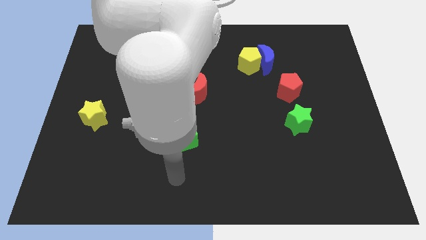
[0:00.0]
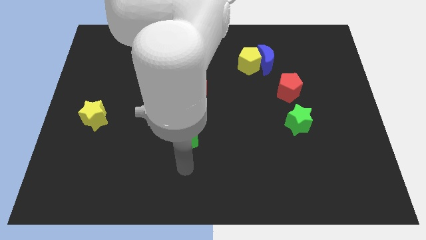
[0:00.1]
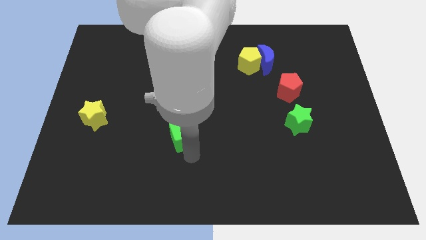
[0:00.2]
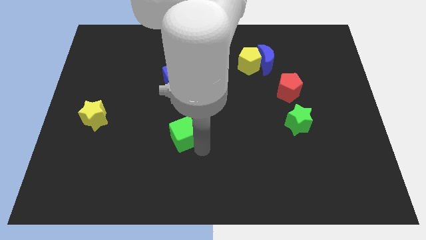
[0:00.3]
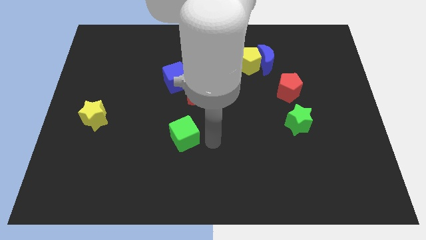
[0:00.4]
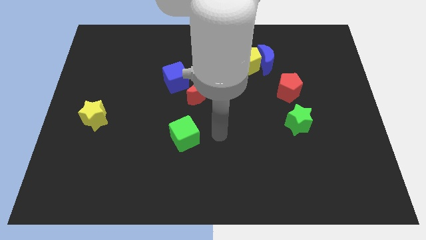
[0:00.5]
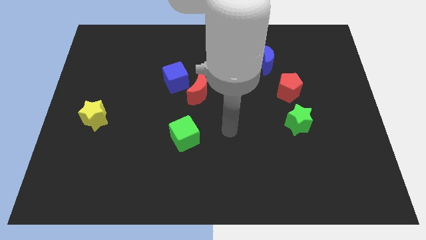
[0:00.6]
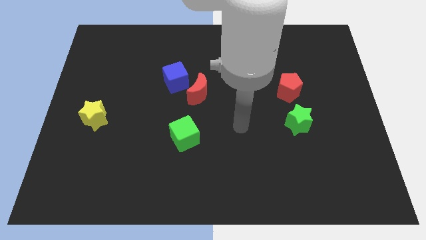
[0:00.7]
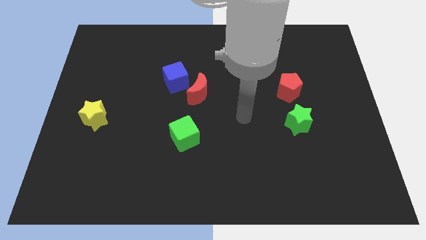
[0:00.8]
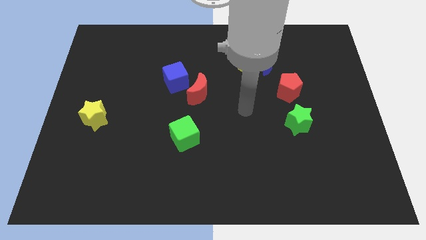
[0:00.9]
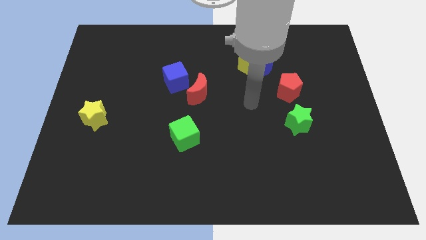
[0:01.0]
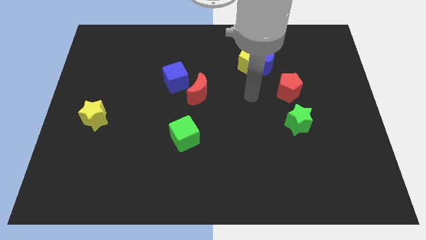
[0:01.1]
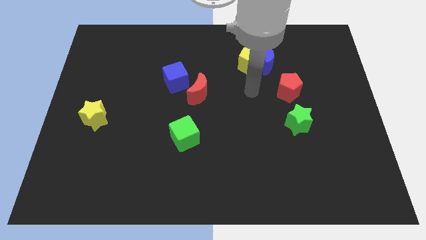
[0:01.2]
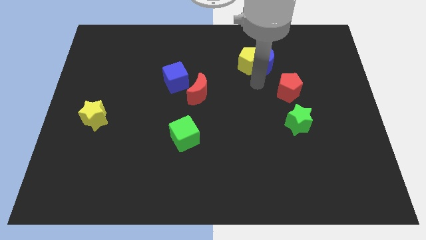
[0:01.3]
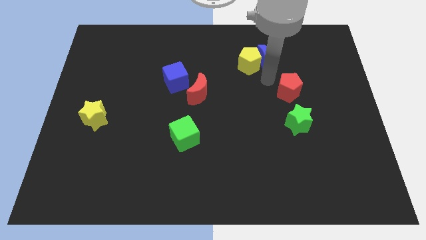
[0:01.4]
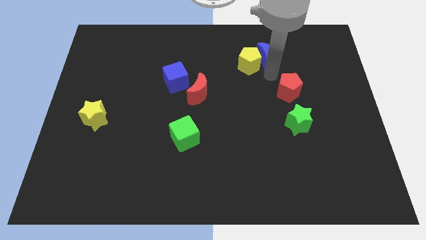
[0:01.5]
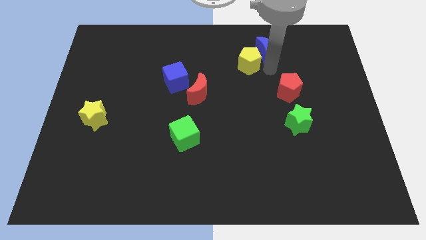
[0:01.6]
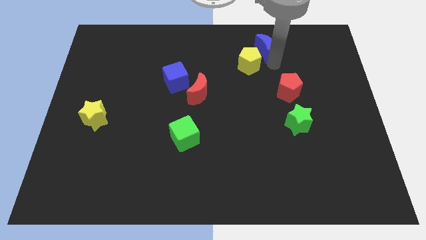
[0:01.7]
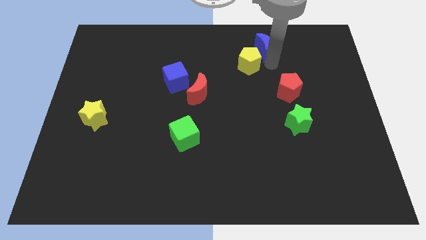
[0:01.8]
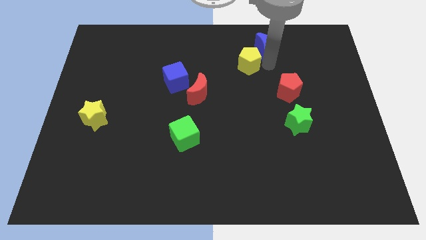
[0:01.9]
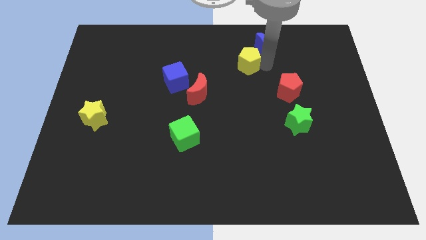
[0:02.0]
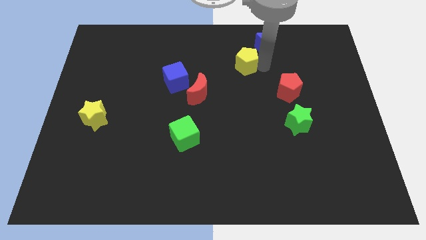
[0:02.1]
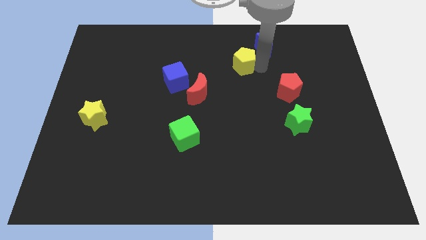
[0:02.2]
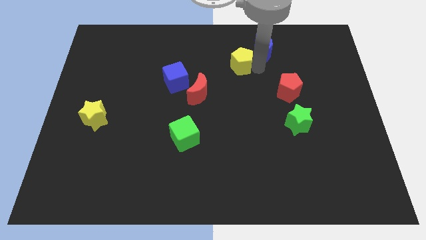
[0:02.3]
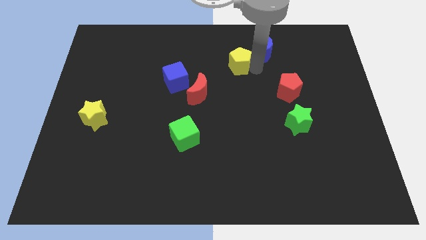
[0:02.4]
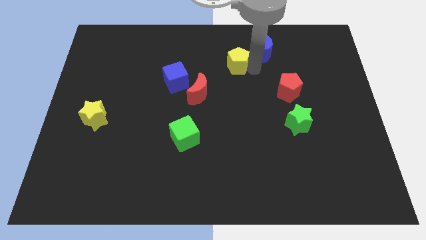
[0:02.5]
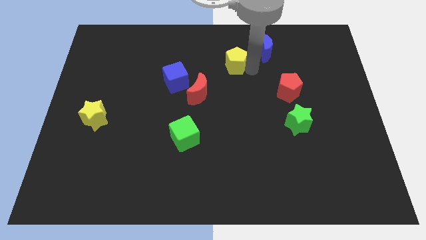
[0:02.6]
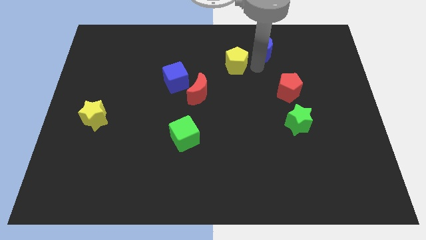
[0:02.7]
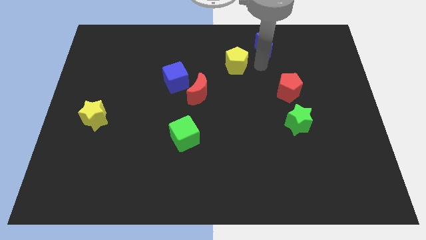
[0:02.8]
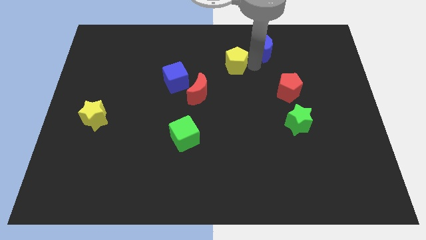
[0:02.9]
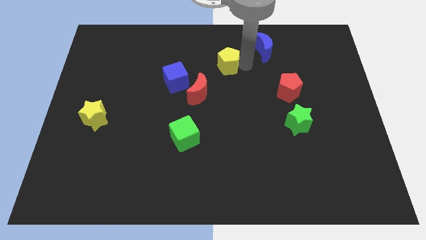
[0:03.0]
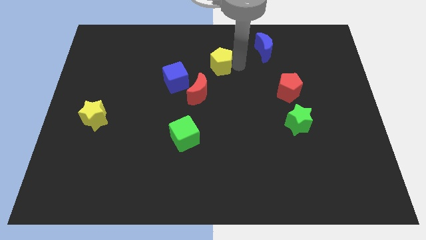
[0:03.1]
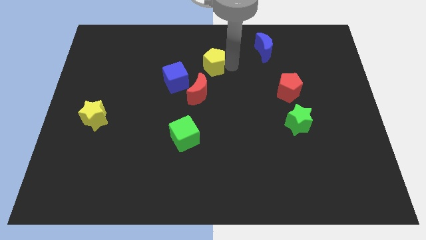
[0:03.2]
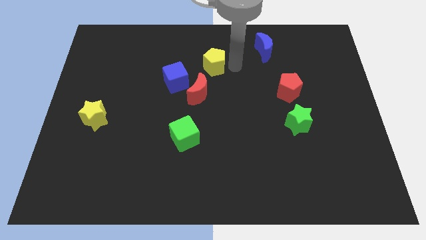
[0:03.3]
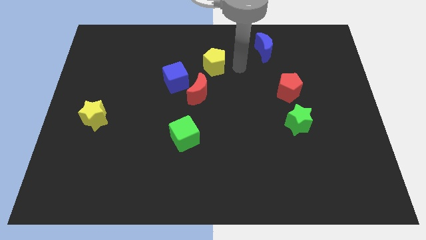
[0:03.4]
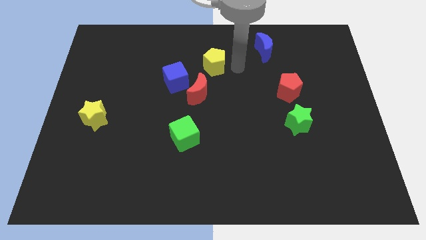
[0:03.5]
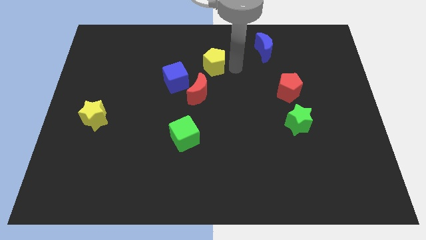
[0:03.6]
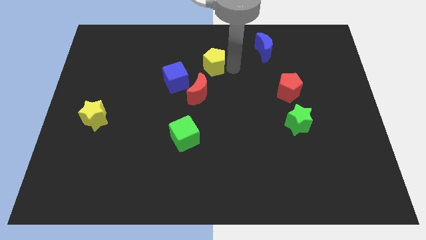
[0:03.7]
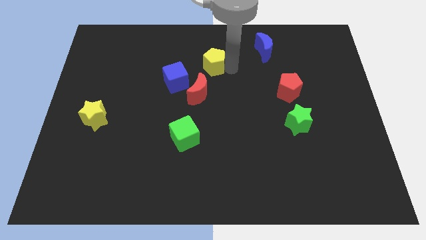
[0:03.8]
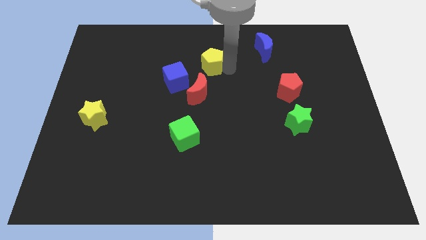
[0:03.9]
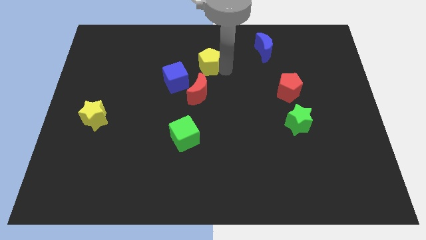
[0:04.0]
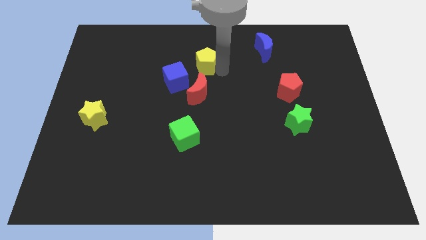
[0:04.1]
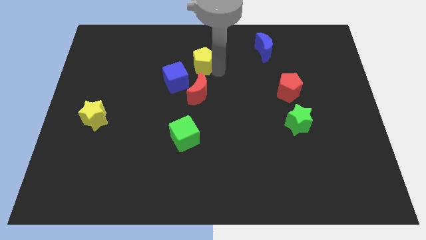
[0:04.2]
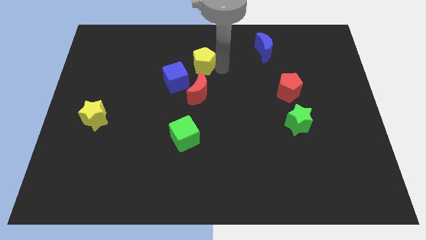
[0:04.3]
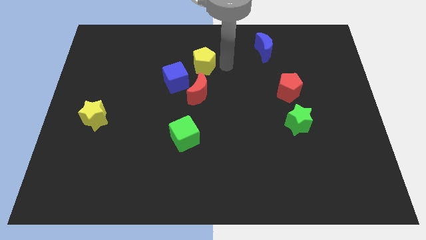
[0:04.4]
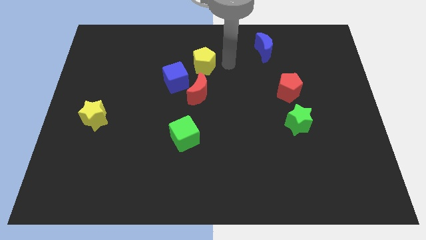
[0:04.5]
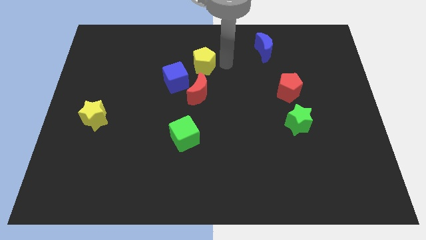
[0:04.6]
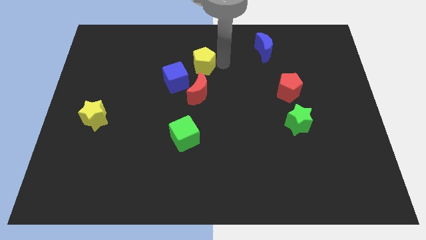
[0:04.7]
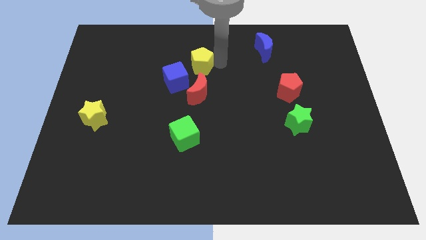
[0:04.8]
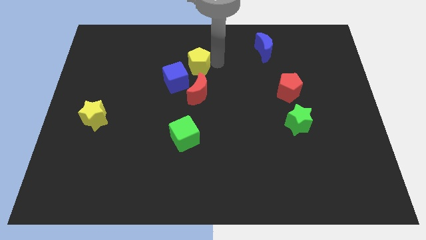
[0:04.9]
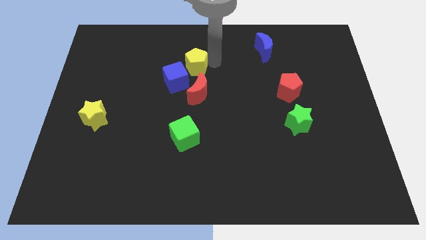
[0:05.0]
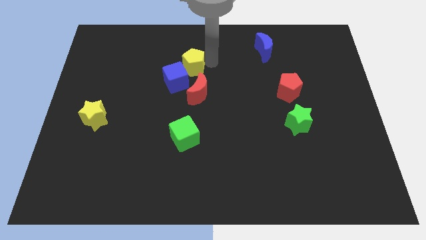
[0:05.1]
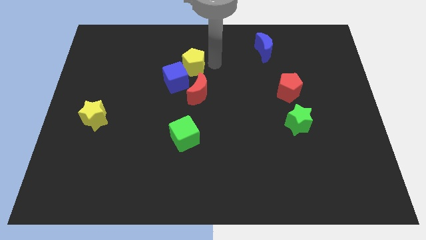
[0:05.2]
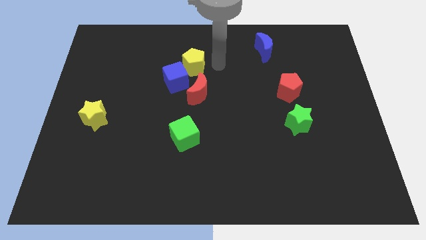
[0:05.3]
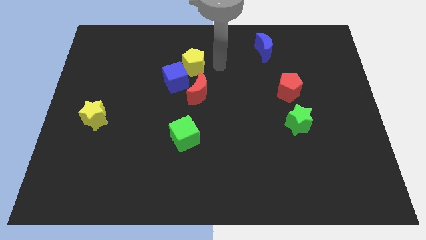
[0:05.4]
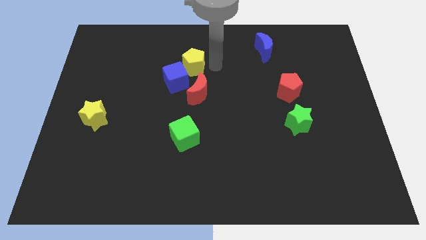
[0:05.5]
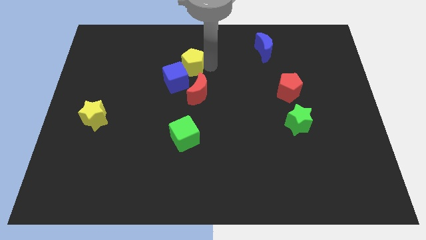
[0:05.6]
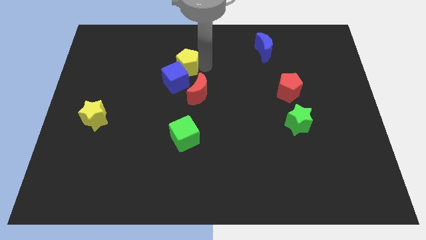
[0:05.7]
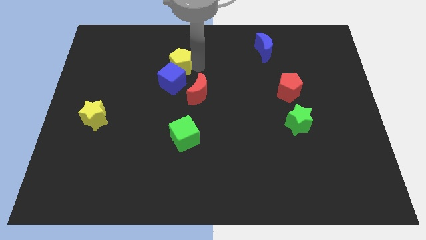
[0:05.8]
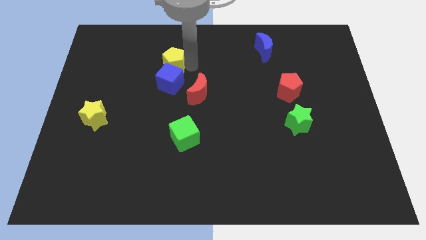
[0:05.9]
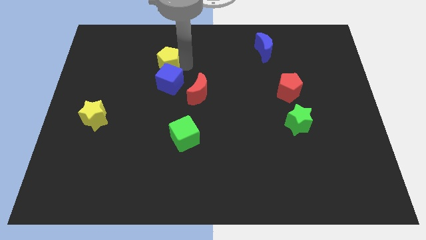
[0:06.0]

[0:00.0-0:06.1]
move the yellow pentagon to the left

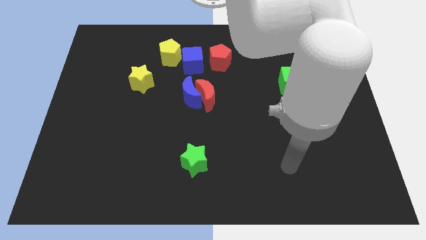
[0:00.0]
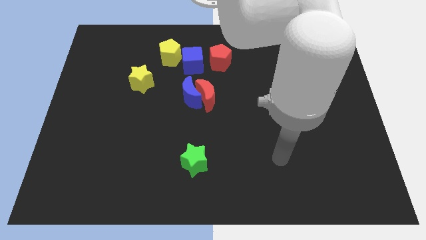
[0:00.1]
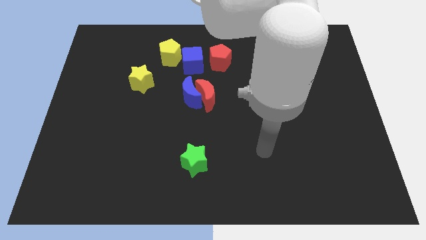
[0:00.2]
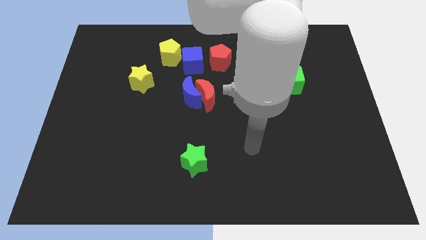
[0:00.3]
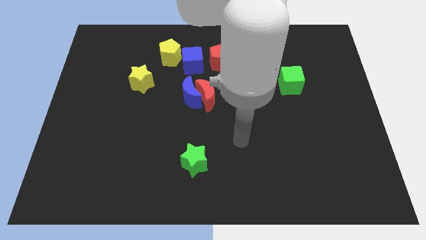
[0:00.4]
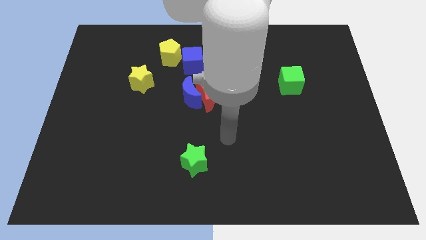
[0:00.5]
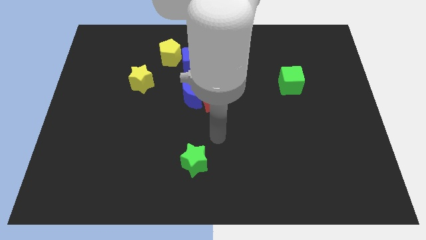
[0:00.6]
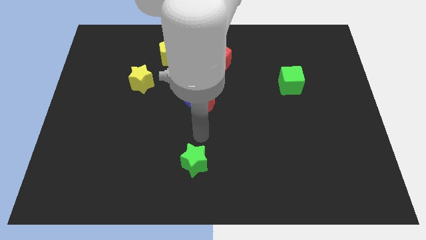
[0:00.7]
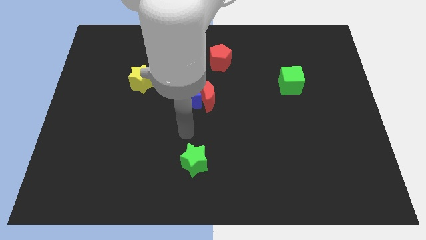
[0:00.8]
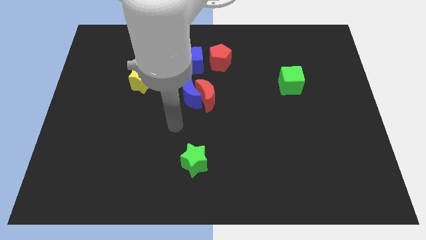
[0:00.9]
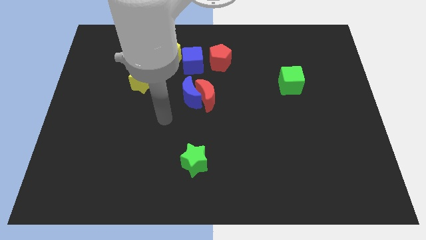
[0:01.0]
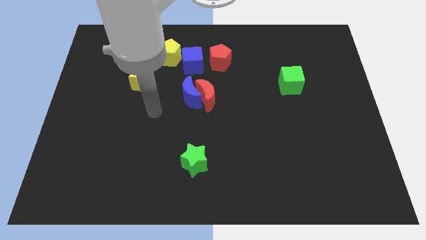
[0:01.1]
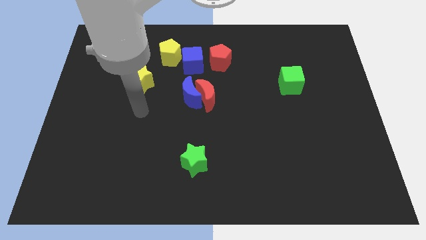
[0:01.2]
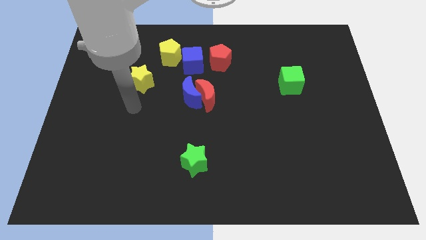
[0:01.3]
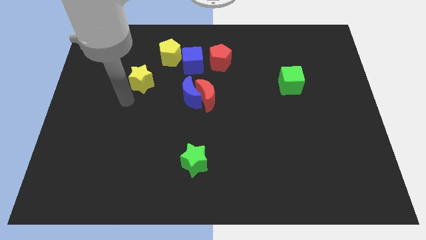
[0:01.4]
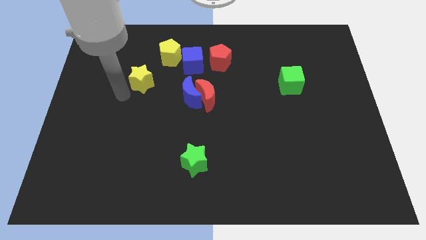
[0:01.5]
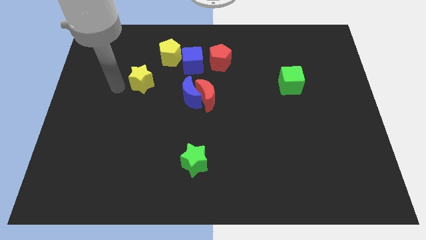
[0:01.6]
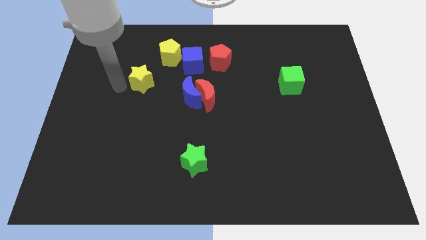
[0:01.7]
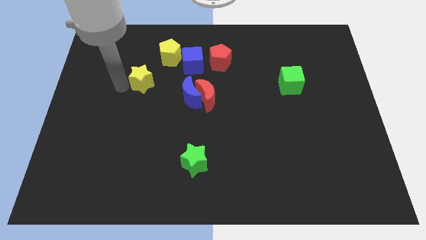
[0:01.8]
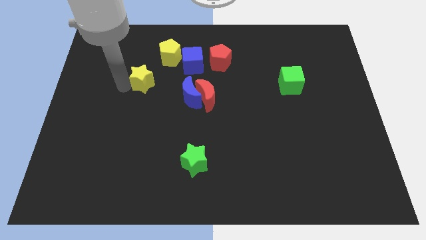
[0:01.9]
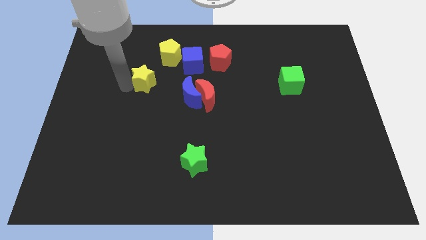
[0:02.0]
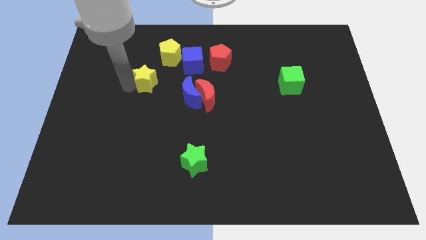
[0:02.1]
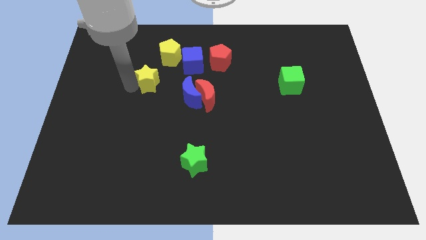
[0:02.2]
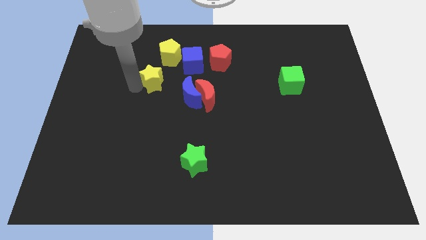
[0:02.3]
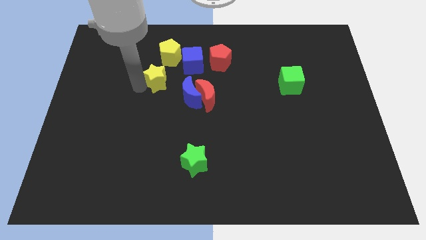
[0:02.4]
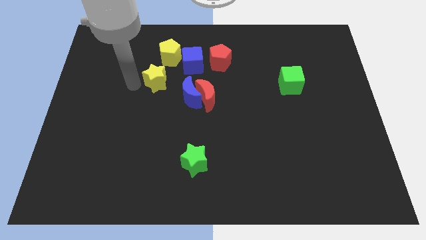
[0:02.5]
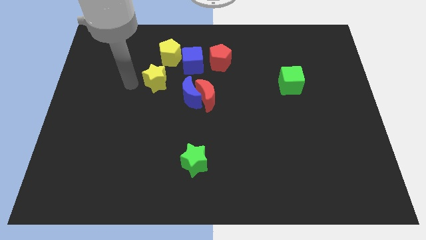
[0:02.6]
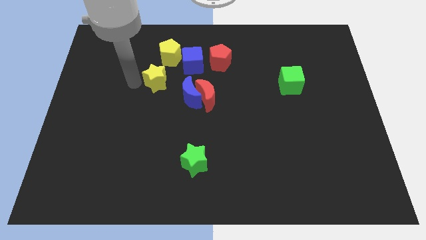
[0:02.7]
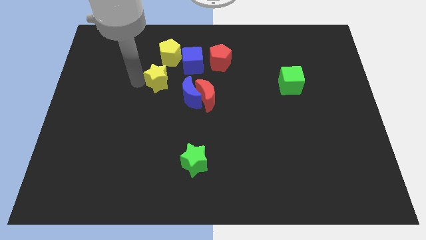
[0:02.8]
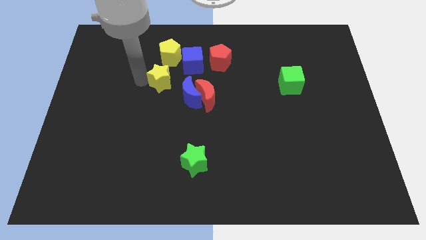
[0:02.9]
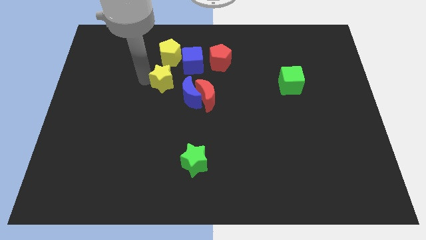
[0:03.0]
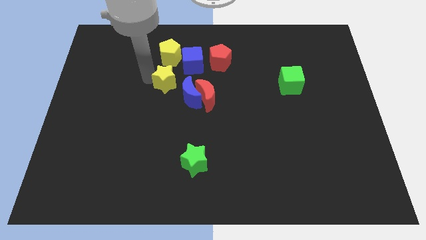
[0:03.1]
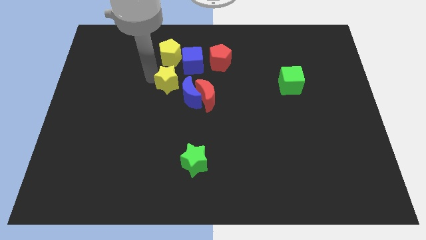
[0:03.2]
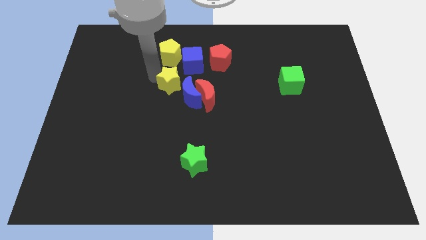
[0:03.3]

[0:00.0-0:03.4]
slide the yellow star to the right somewhat
